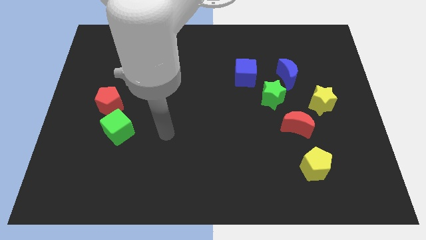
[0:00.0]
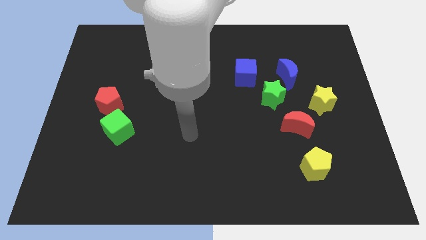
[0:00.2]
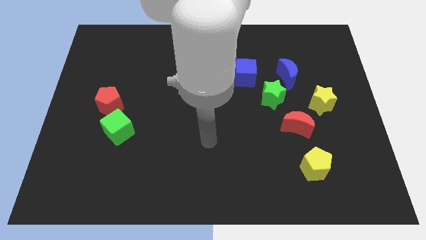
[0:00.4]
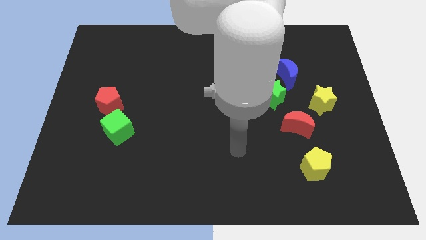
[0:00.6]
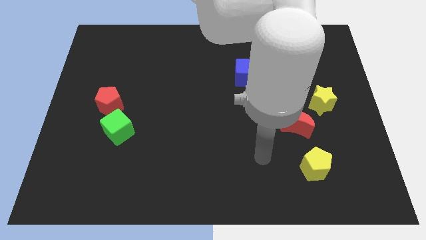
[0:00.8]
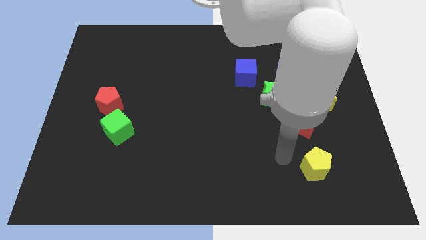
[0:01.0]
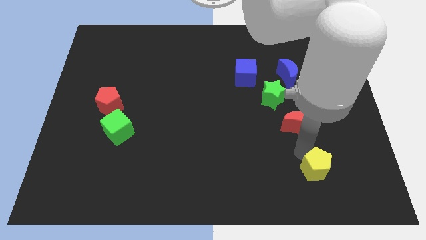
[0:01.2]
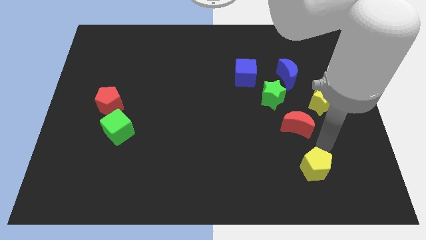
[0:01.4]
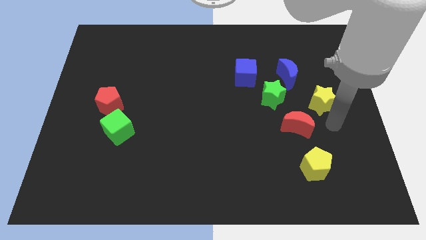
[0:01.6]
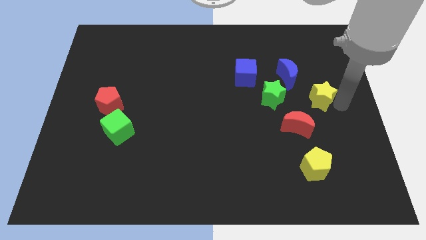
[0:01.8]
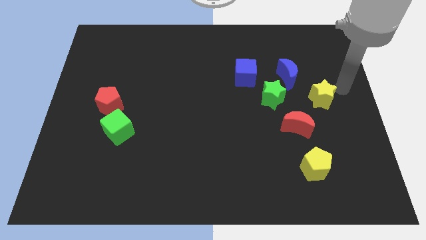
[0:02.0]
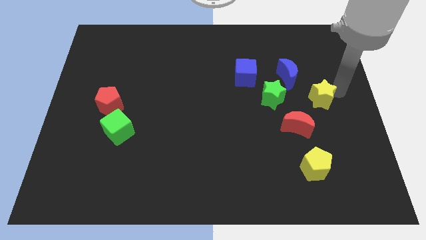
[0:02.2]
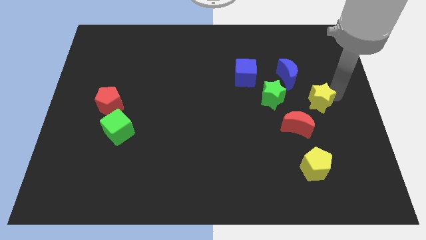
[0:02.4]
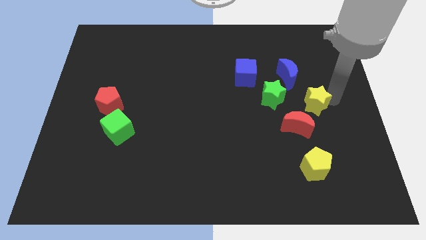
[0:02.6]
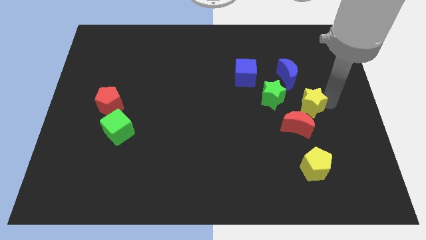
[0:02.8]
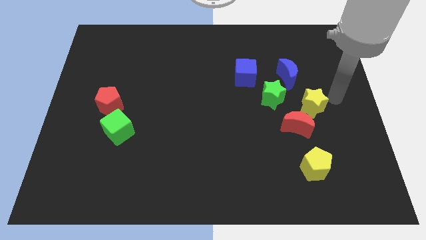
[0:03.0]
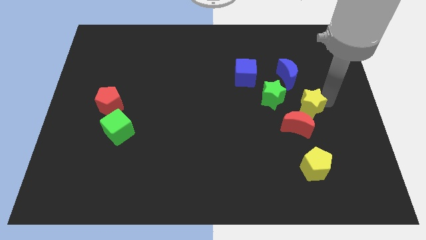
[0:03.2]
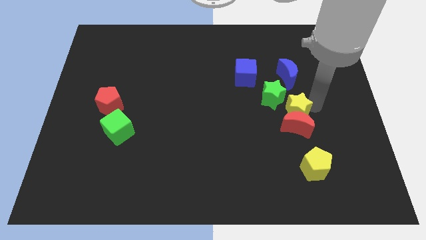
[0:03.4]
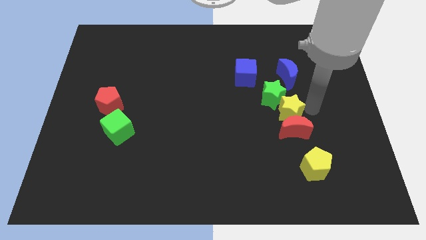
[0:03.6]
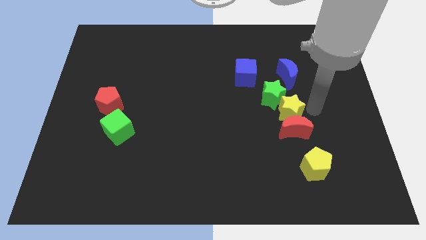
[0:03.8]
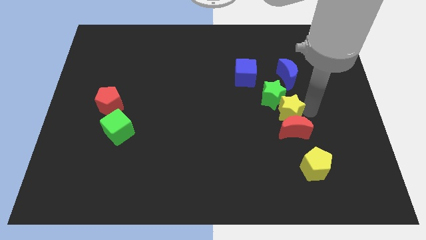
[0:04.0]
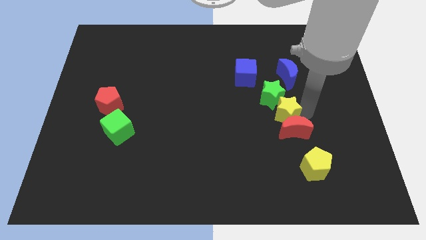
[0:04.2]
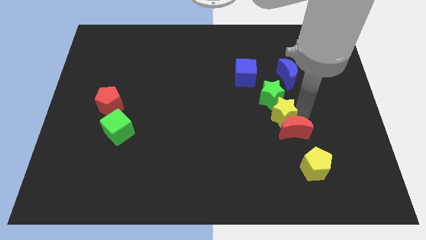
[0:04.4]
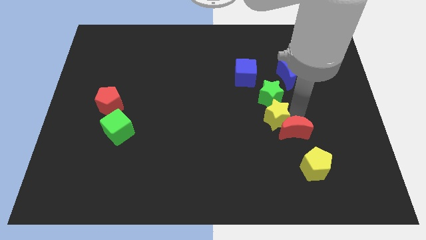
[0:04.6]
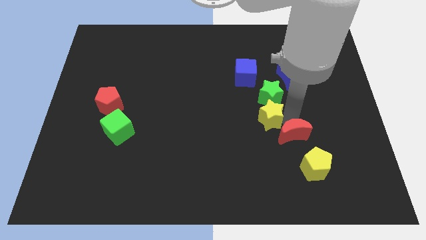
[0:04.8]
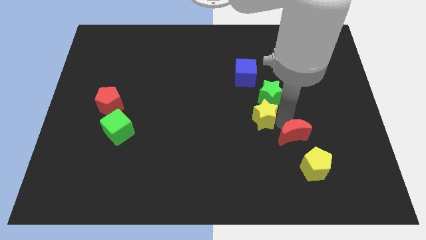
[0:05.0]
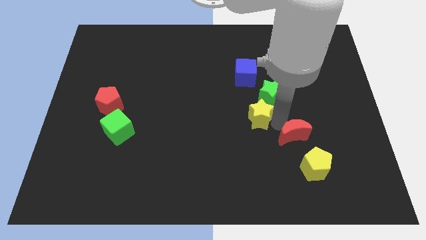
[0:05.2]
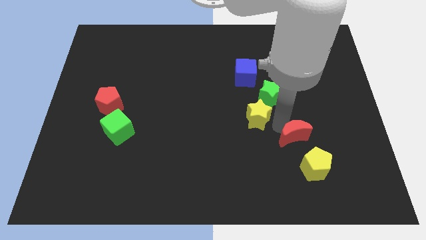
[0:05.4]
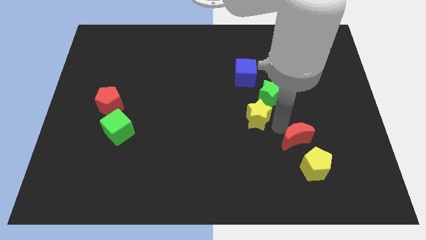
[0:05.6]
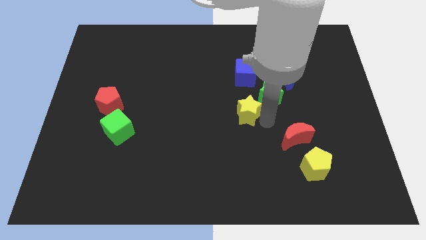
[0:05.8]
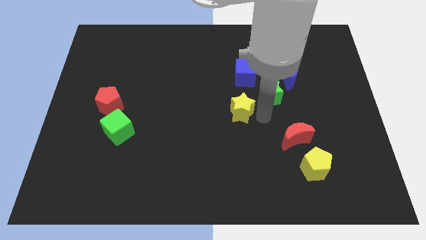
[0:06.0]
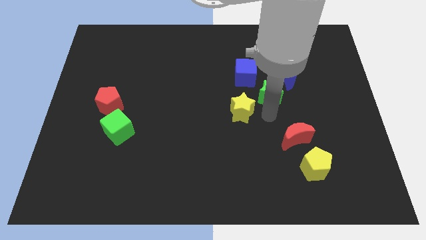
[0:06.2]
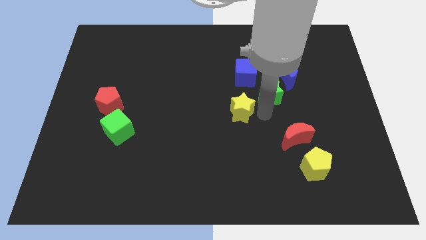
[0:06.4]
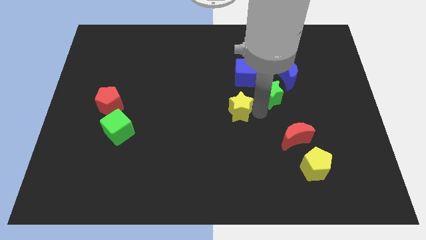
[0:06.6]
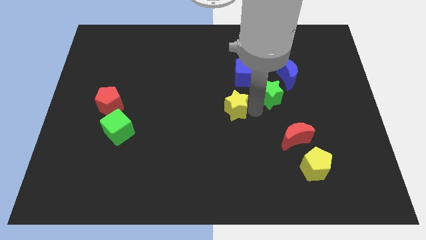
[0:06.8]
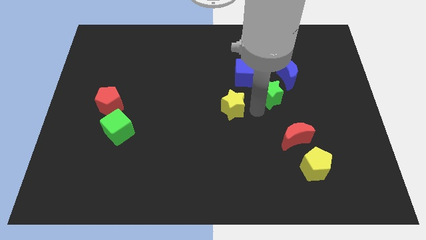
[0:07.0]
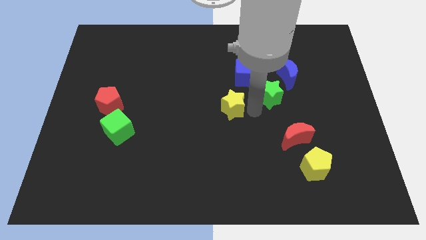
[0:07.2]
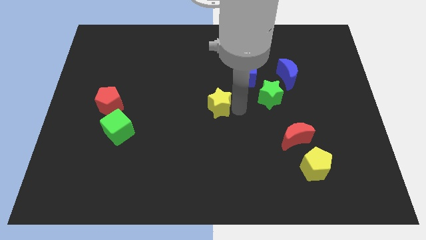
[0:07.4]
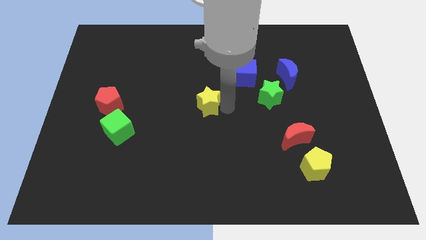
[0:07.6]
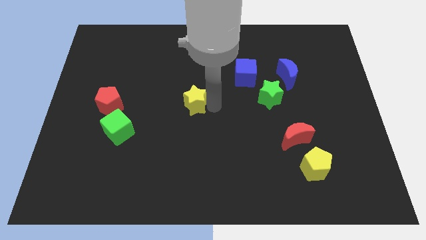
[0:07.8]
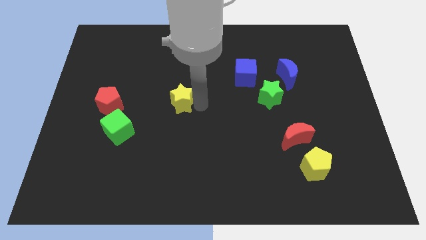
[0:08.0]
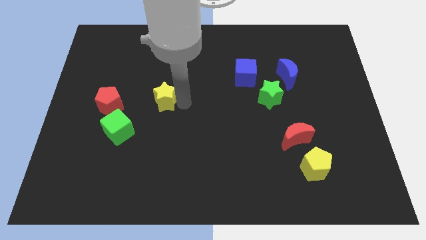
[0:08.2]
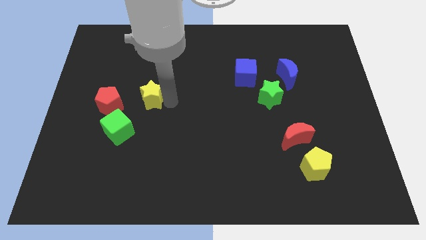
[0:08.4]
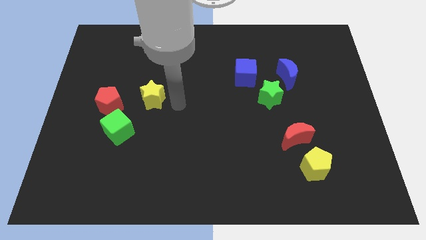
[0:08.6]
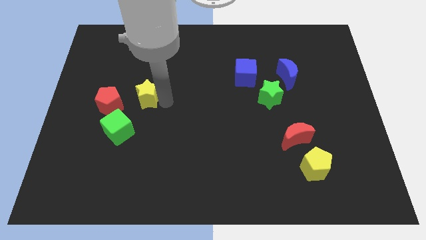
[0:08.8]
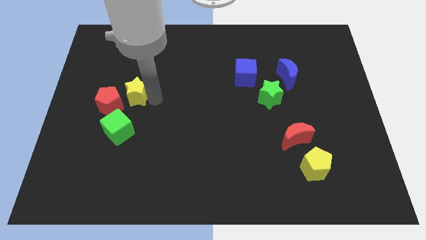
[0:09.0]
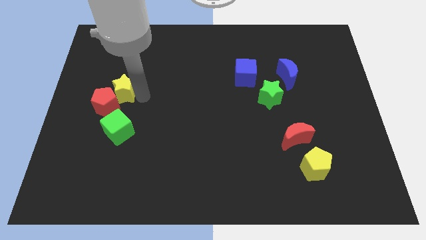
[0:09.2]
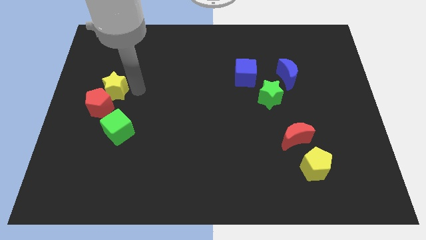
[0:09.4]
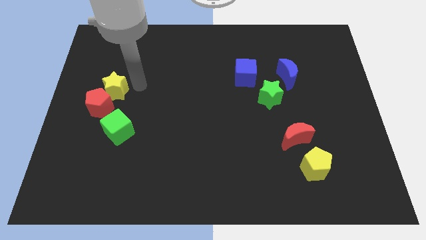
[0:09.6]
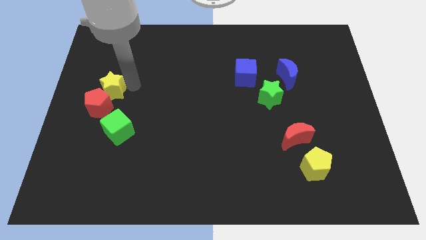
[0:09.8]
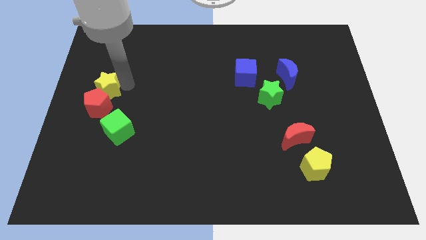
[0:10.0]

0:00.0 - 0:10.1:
put the yellow star to the center left

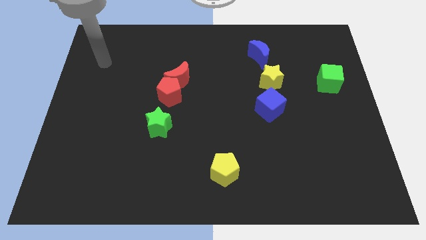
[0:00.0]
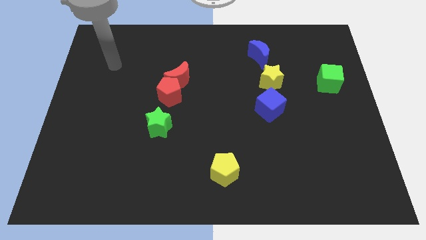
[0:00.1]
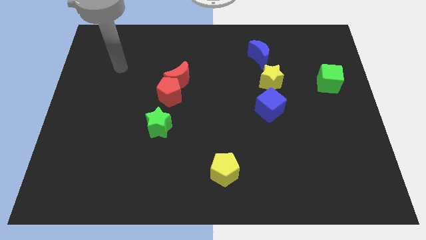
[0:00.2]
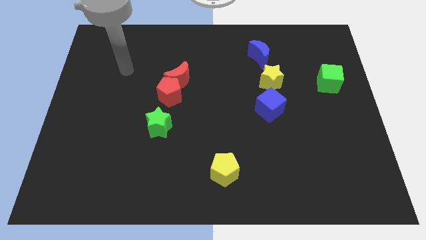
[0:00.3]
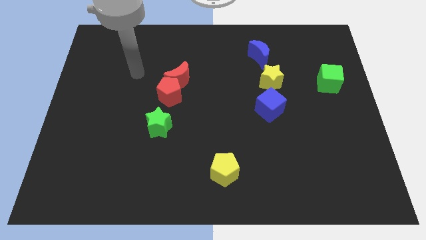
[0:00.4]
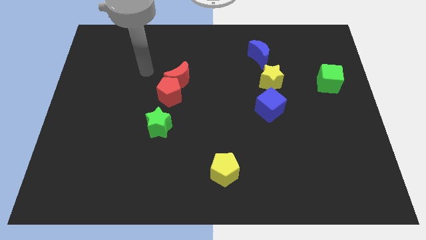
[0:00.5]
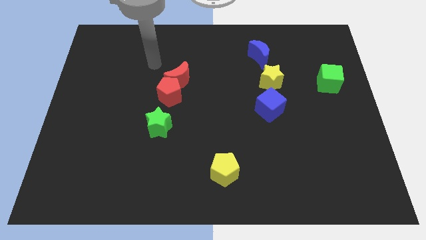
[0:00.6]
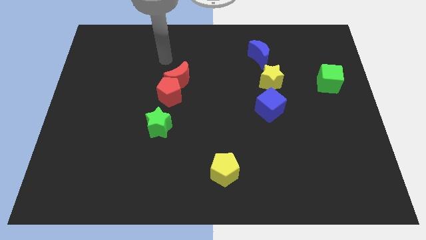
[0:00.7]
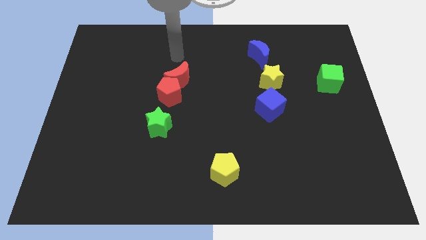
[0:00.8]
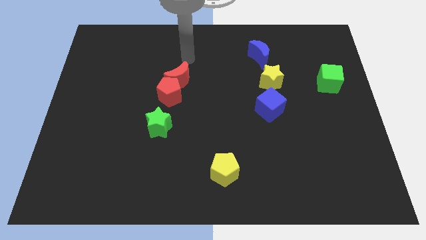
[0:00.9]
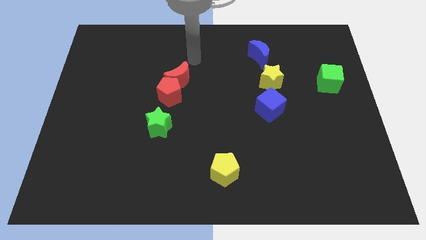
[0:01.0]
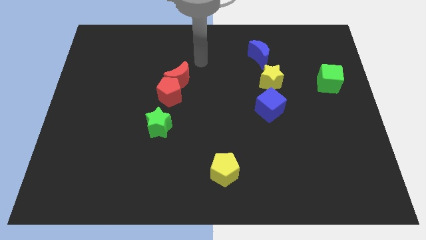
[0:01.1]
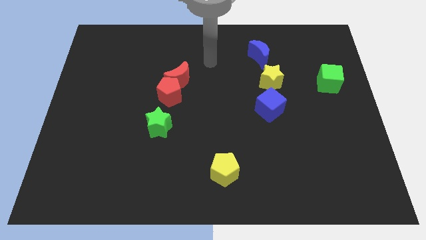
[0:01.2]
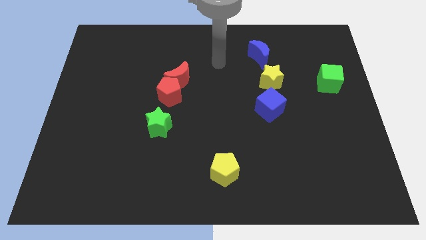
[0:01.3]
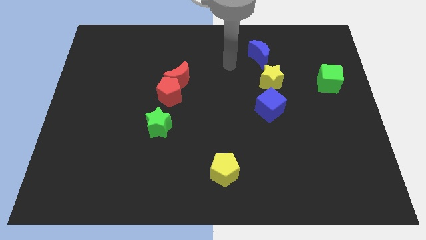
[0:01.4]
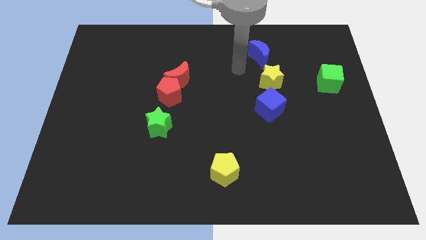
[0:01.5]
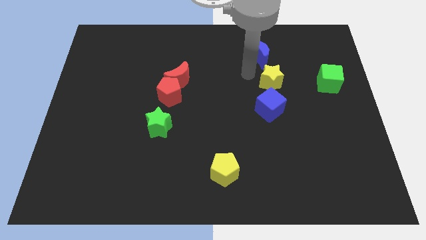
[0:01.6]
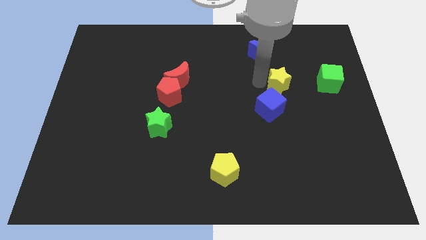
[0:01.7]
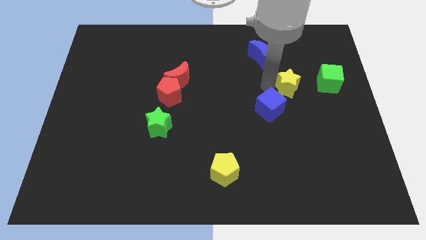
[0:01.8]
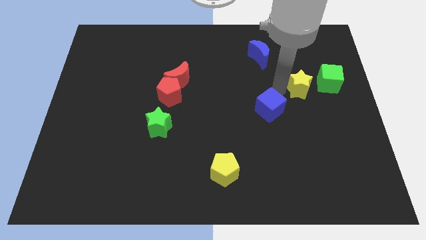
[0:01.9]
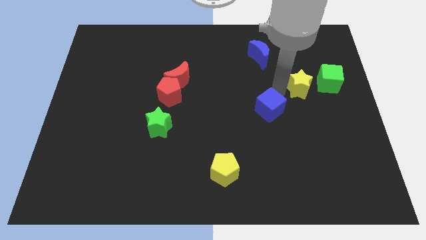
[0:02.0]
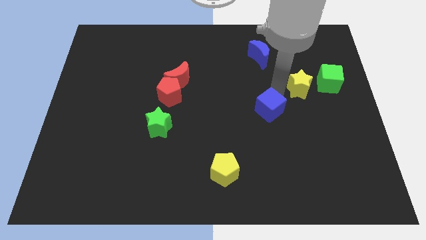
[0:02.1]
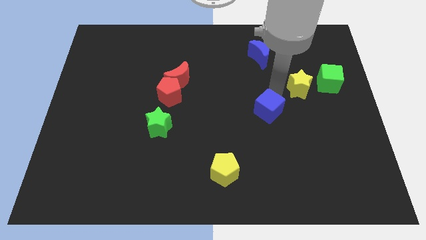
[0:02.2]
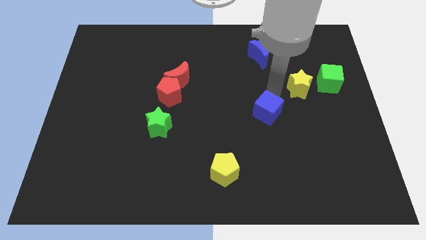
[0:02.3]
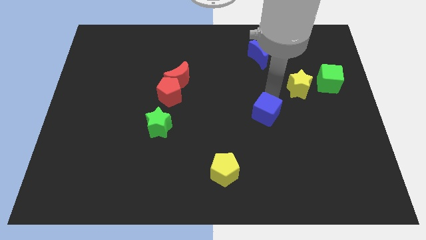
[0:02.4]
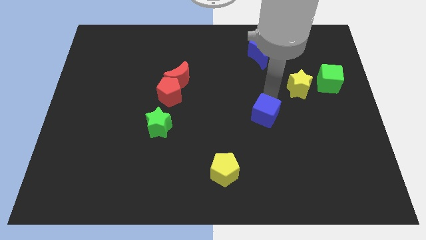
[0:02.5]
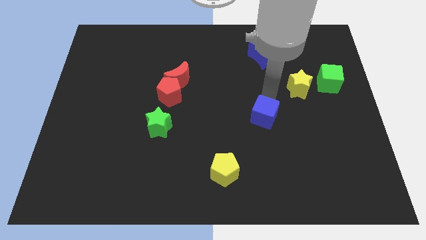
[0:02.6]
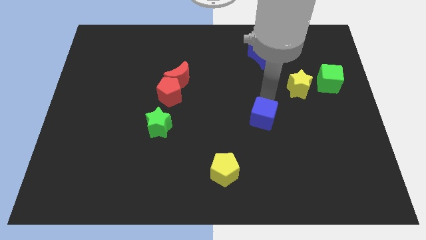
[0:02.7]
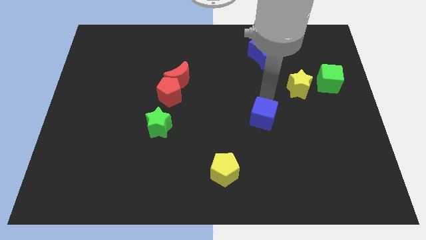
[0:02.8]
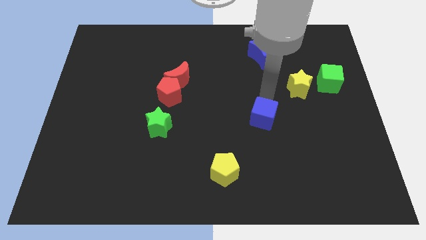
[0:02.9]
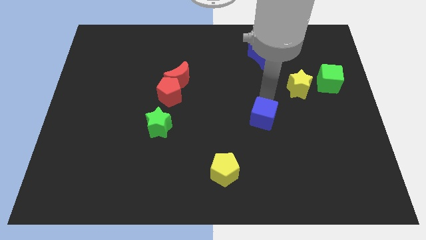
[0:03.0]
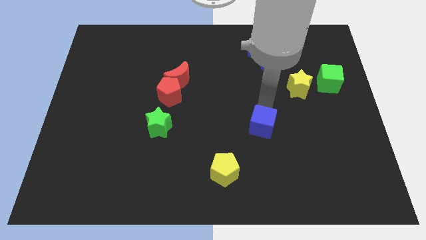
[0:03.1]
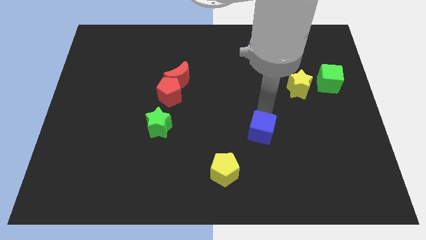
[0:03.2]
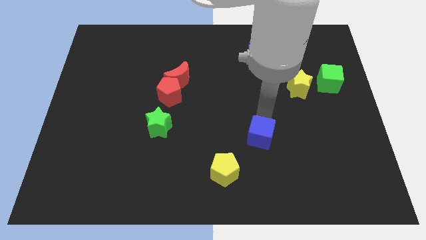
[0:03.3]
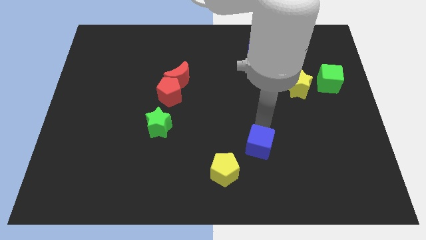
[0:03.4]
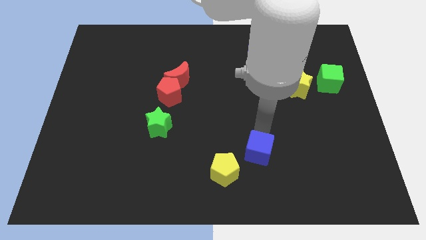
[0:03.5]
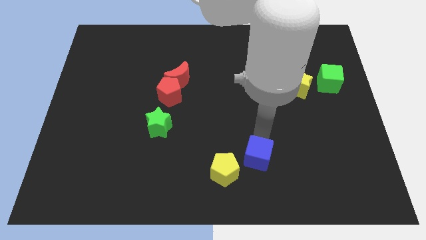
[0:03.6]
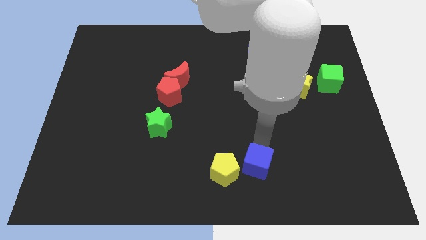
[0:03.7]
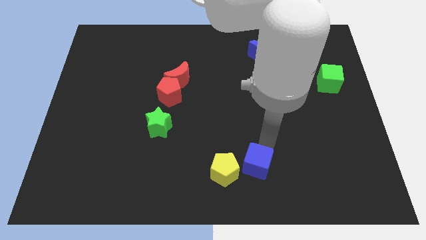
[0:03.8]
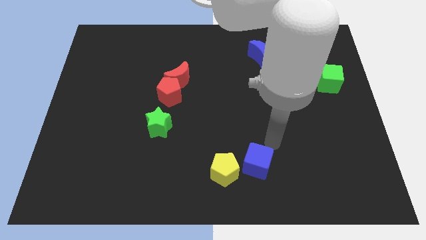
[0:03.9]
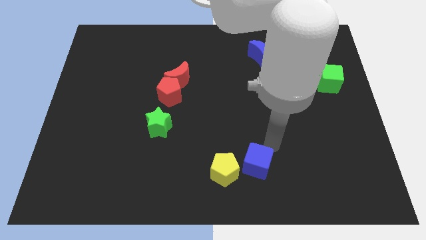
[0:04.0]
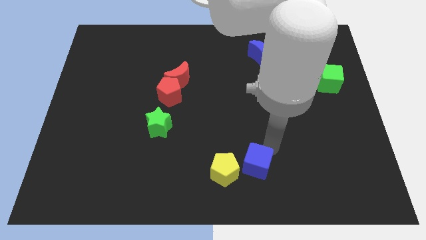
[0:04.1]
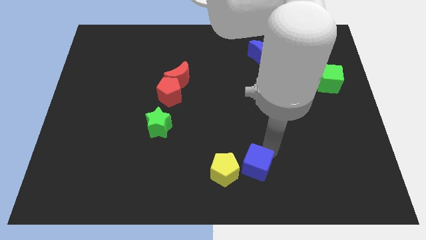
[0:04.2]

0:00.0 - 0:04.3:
push the blue cube to the bottom side
